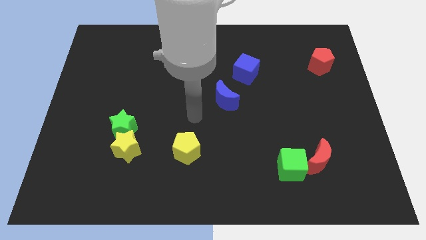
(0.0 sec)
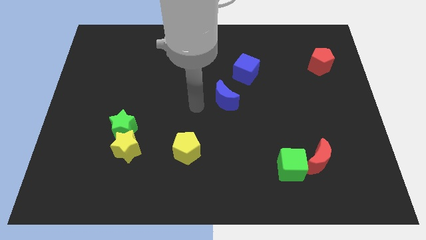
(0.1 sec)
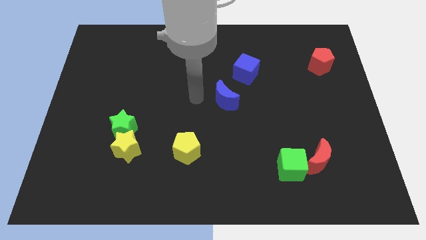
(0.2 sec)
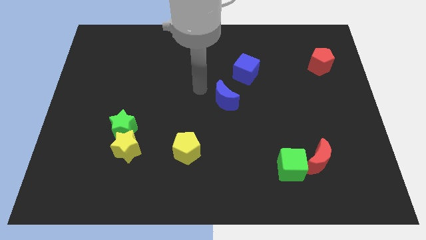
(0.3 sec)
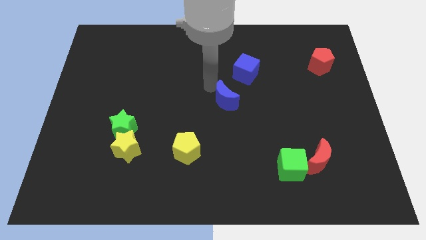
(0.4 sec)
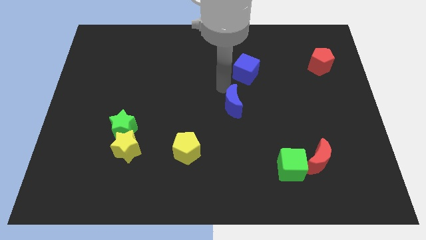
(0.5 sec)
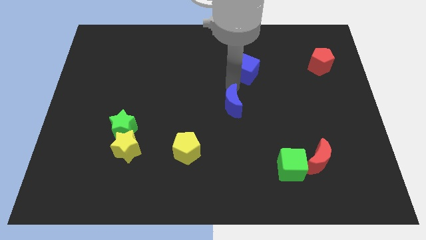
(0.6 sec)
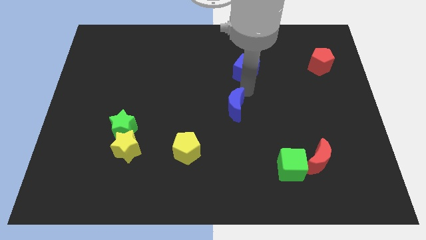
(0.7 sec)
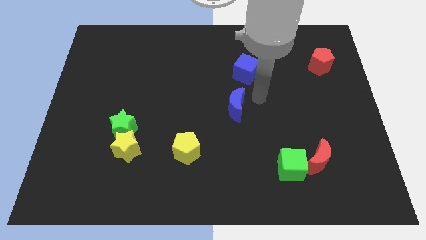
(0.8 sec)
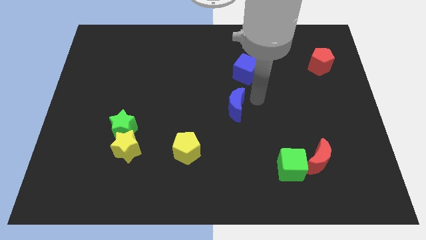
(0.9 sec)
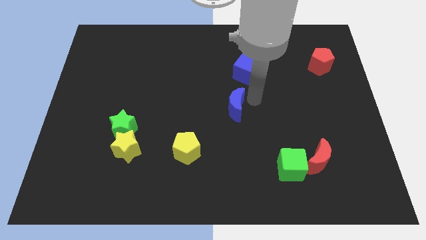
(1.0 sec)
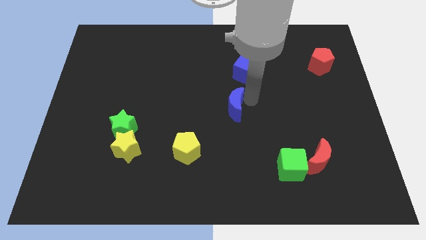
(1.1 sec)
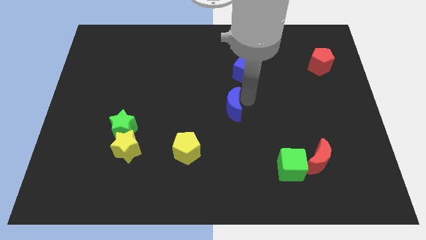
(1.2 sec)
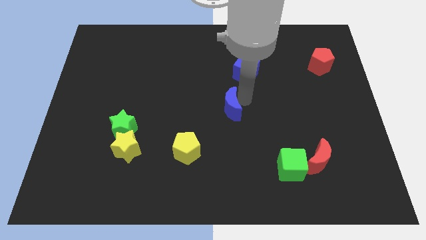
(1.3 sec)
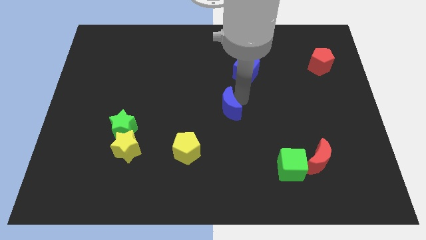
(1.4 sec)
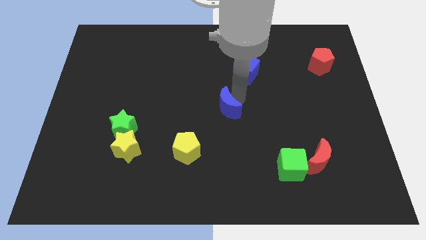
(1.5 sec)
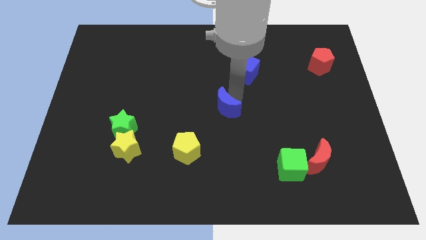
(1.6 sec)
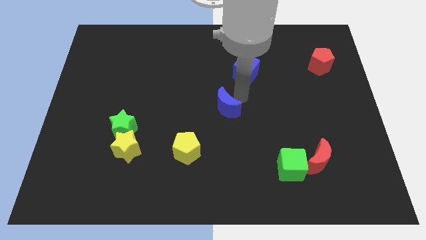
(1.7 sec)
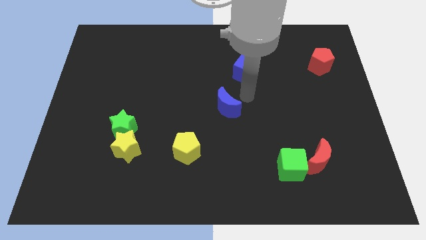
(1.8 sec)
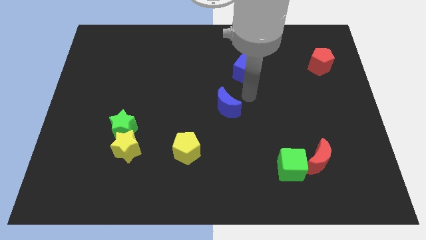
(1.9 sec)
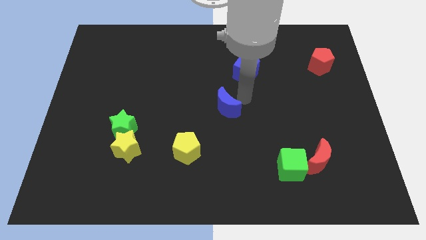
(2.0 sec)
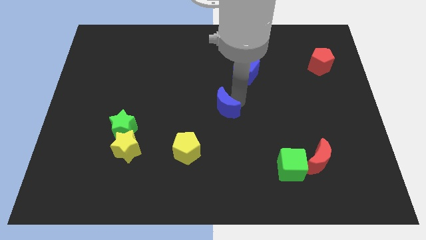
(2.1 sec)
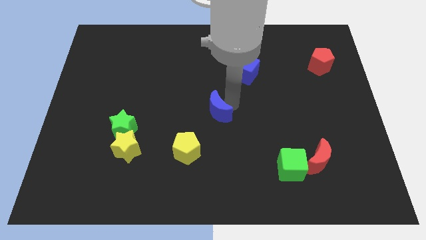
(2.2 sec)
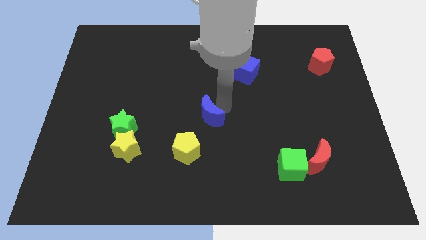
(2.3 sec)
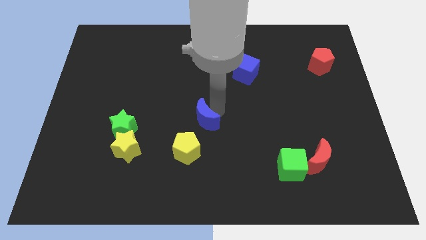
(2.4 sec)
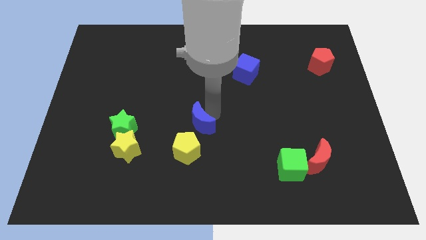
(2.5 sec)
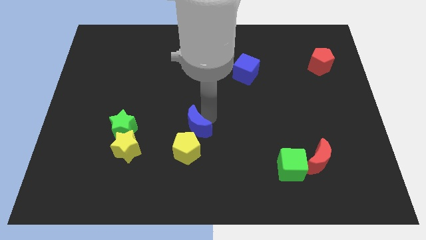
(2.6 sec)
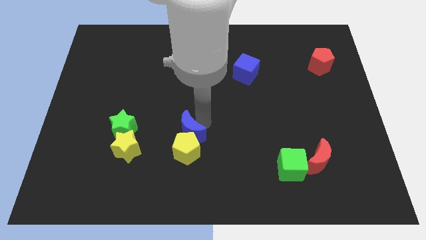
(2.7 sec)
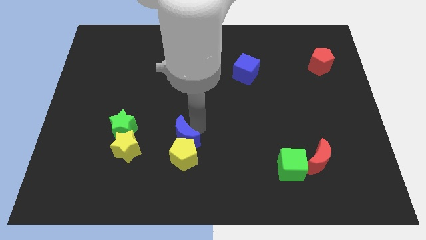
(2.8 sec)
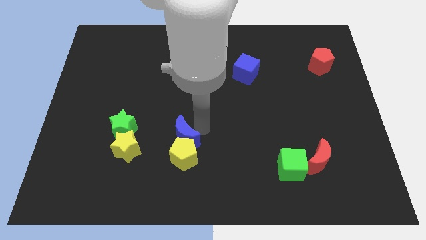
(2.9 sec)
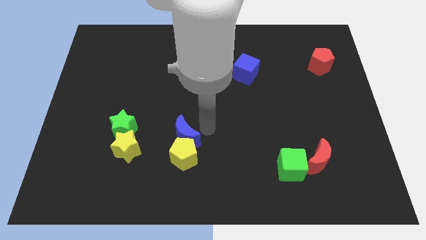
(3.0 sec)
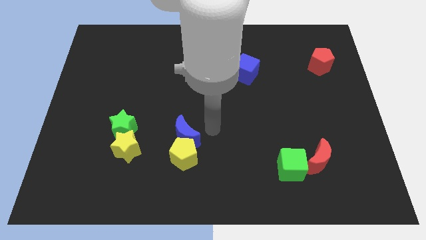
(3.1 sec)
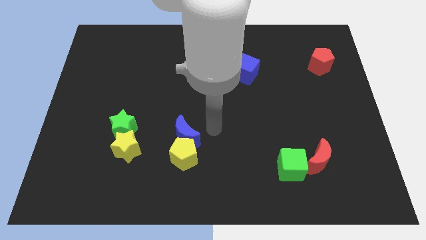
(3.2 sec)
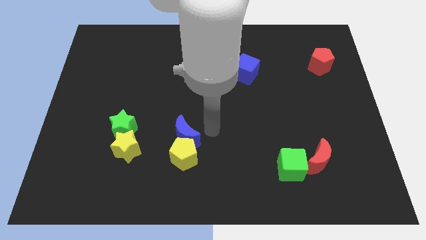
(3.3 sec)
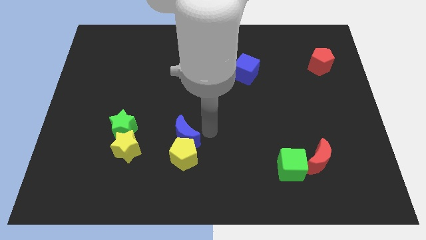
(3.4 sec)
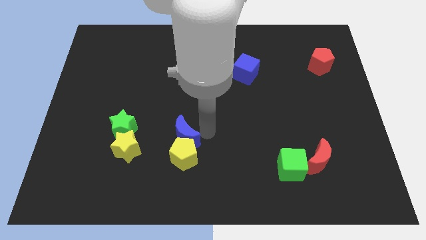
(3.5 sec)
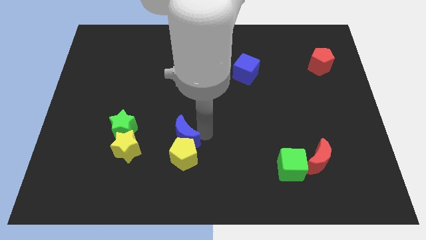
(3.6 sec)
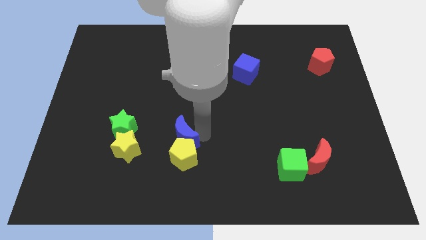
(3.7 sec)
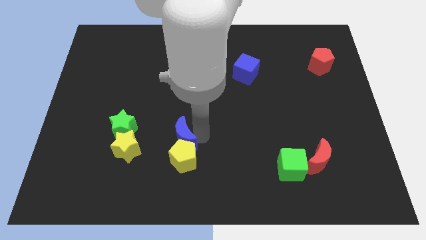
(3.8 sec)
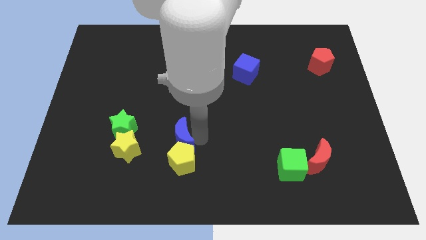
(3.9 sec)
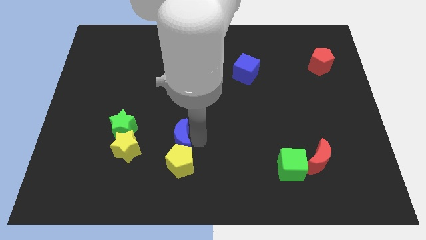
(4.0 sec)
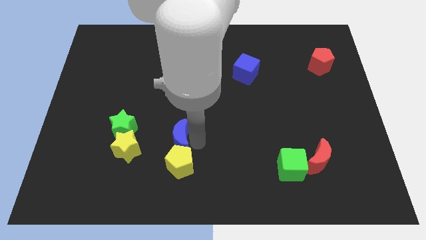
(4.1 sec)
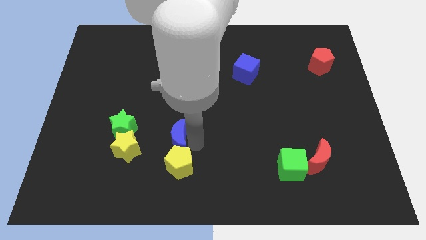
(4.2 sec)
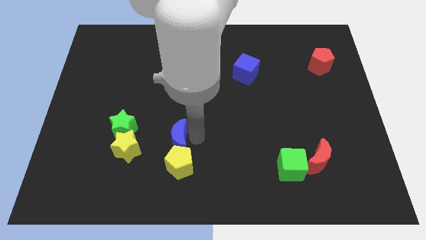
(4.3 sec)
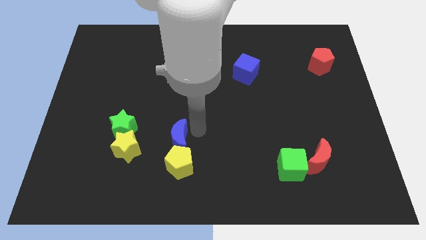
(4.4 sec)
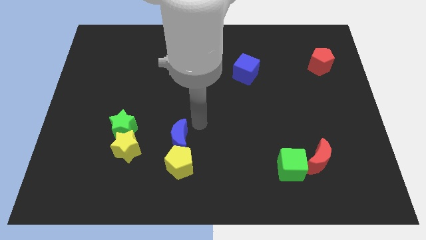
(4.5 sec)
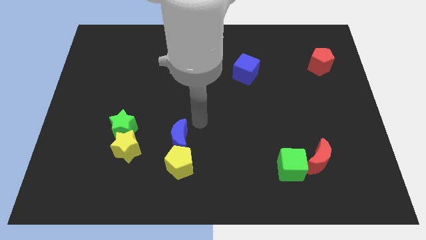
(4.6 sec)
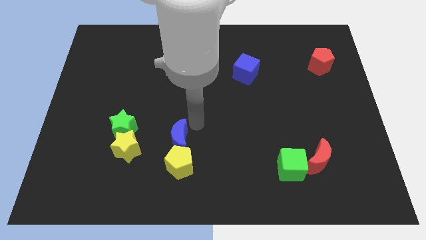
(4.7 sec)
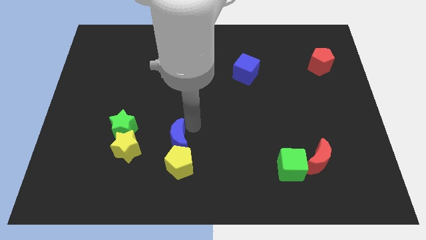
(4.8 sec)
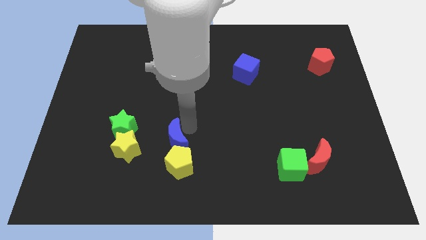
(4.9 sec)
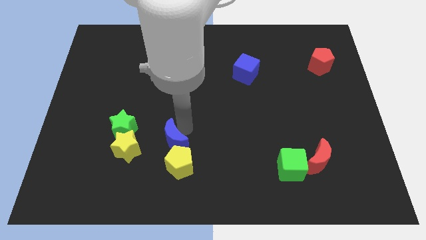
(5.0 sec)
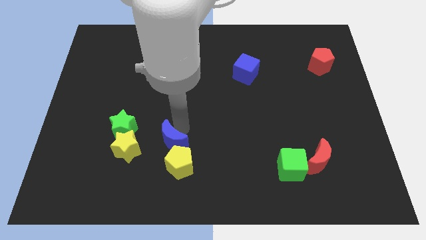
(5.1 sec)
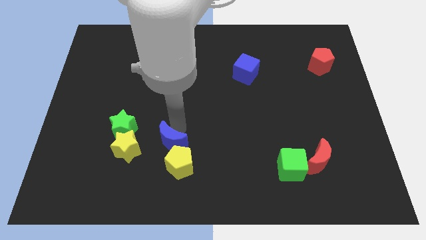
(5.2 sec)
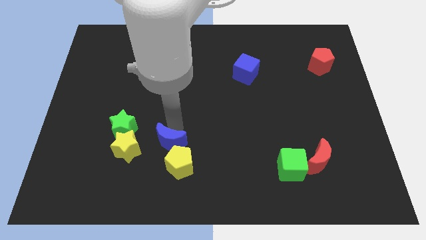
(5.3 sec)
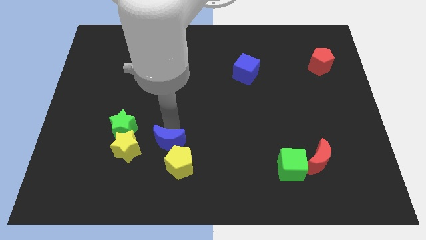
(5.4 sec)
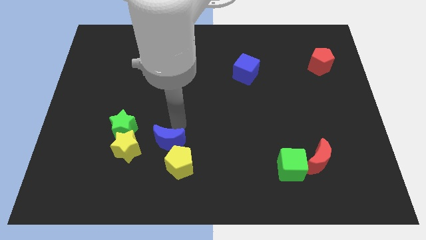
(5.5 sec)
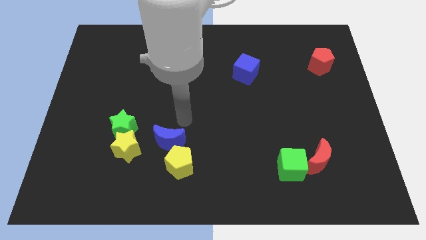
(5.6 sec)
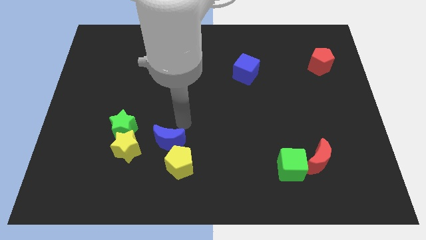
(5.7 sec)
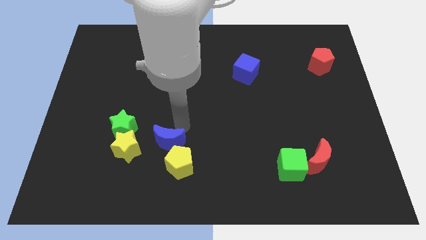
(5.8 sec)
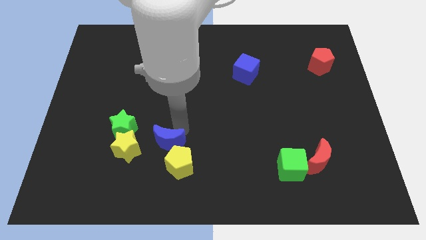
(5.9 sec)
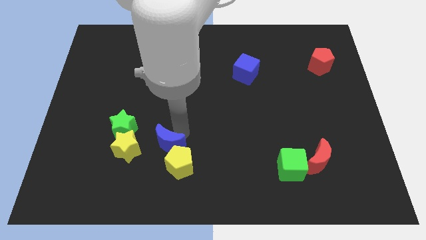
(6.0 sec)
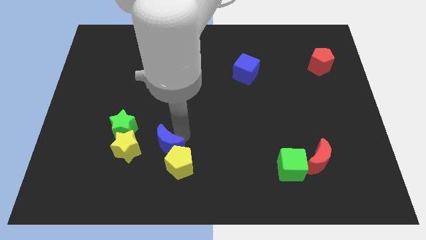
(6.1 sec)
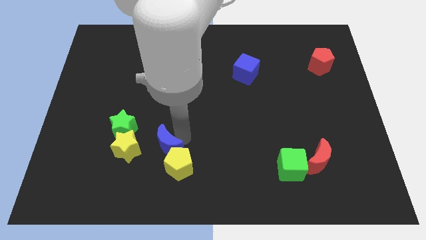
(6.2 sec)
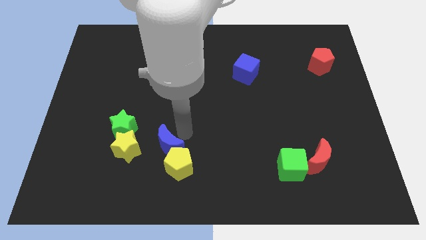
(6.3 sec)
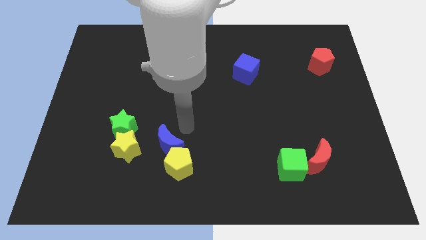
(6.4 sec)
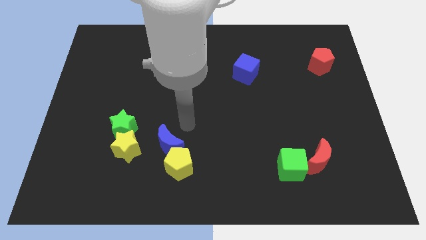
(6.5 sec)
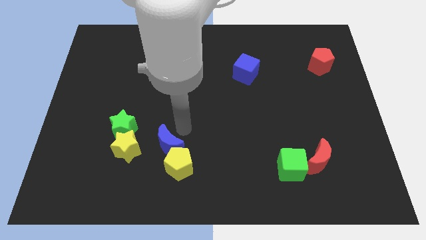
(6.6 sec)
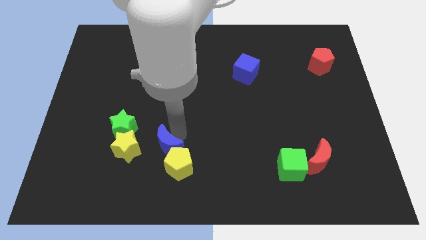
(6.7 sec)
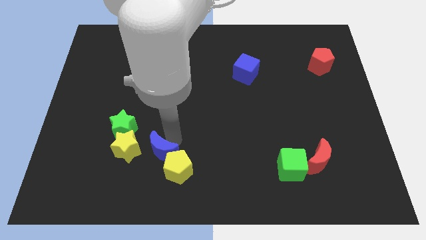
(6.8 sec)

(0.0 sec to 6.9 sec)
push the blue moon to the bottom right of the yellow star
